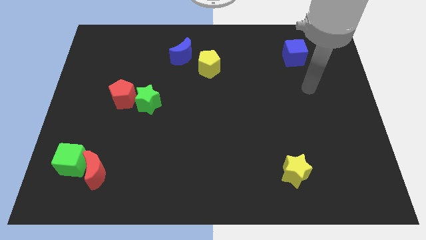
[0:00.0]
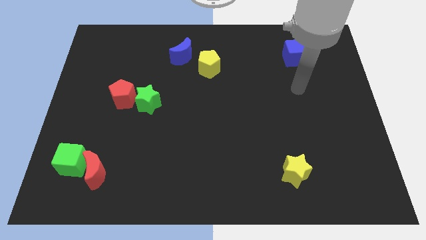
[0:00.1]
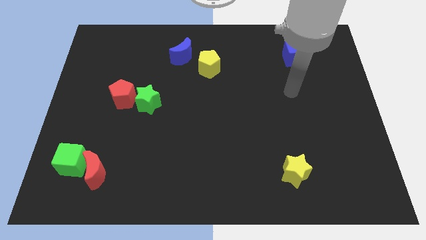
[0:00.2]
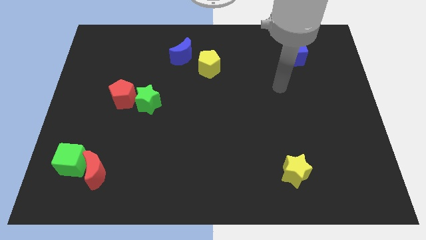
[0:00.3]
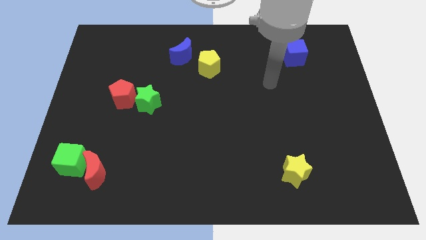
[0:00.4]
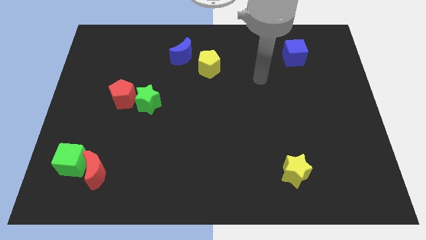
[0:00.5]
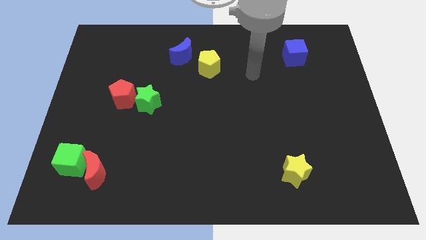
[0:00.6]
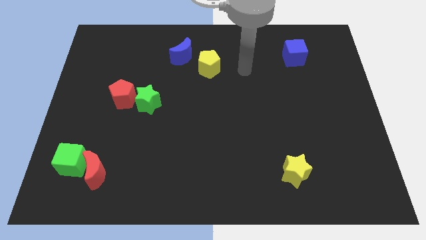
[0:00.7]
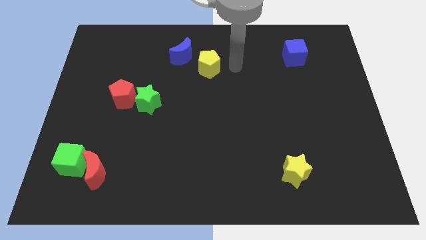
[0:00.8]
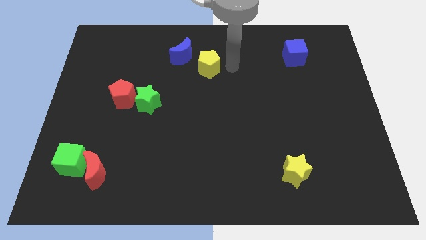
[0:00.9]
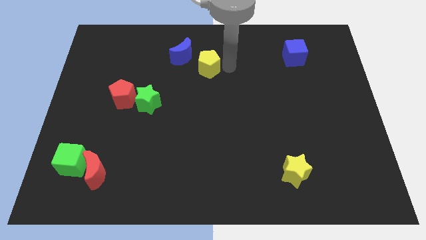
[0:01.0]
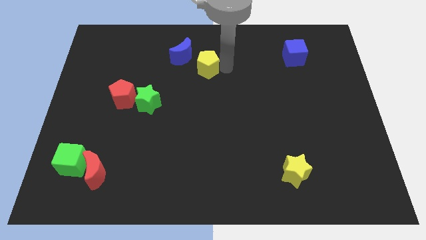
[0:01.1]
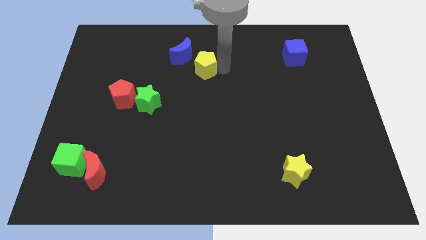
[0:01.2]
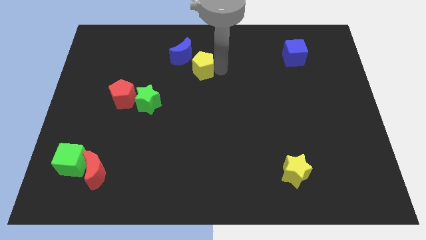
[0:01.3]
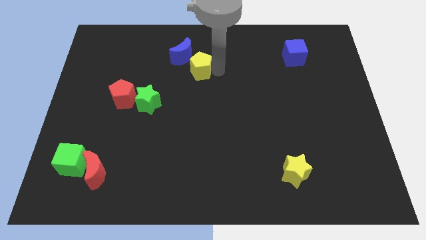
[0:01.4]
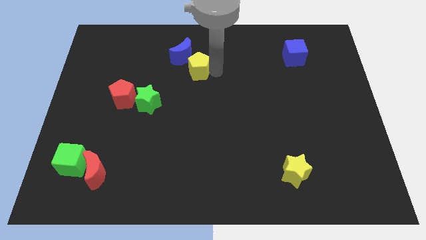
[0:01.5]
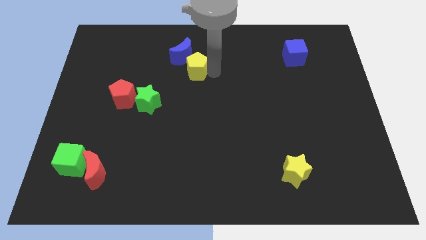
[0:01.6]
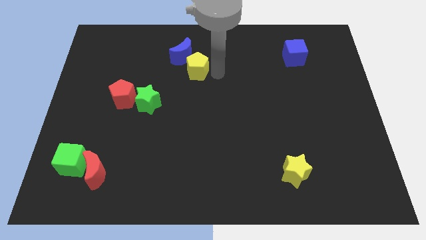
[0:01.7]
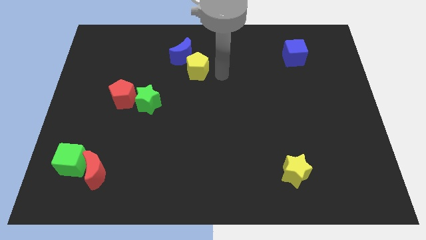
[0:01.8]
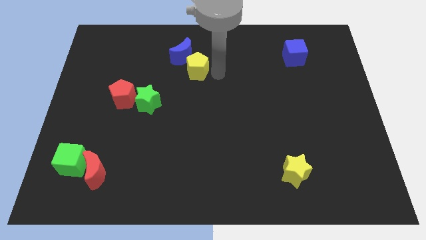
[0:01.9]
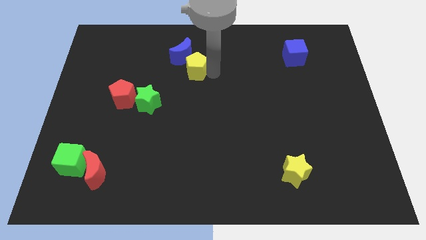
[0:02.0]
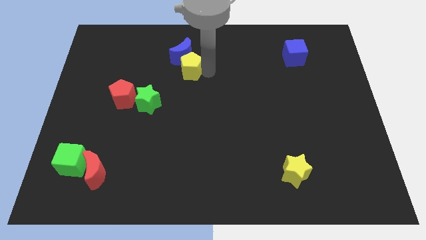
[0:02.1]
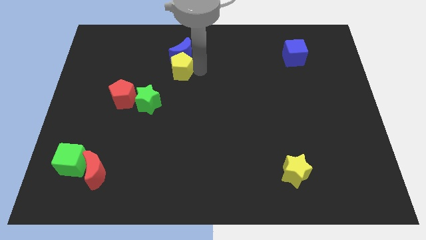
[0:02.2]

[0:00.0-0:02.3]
slightly move the yellow pentagon left

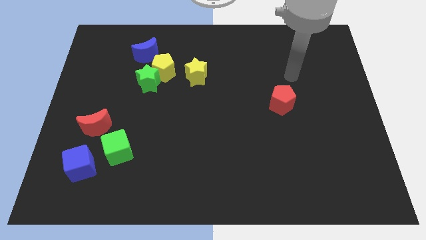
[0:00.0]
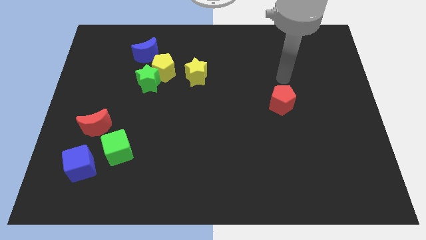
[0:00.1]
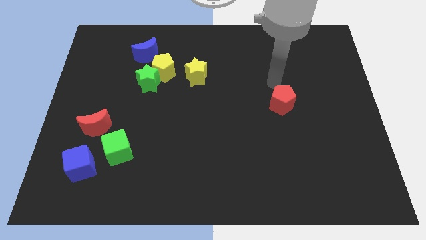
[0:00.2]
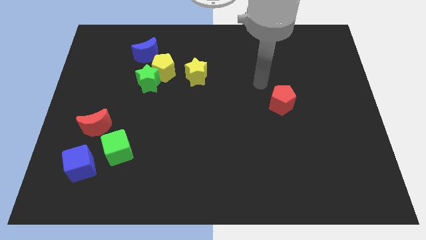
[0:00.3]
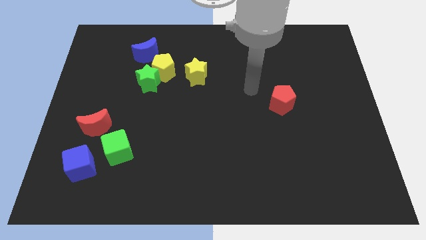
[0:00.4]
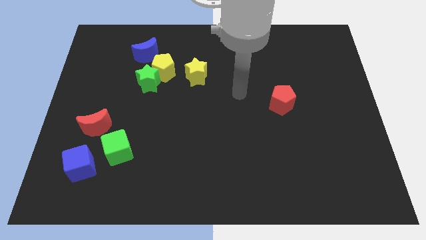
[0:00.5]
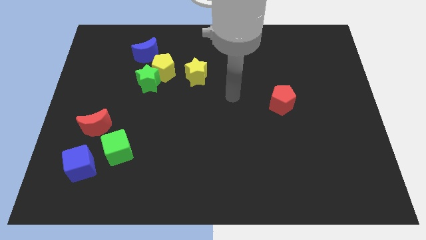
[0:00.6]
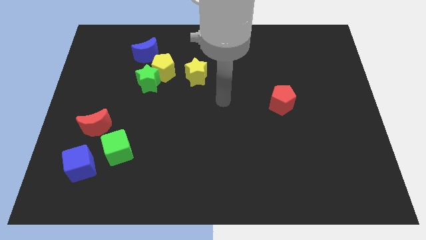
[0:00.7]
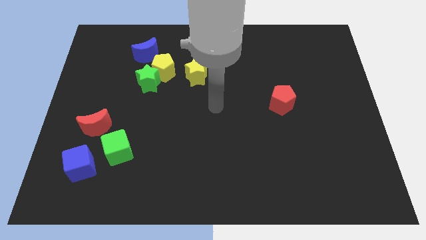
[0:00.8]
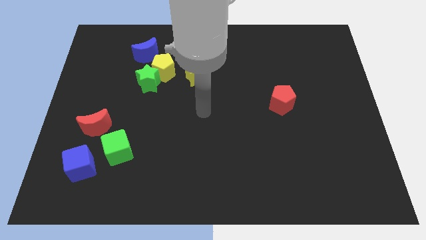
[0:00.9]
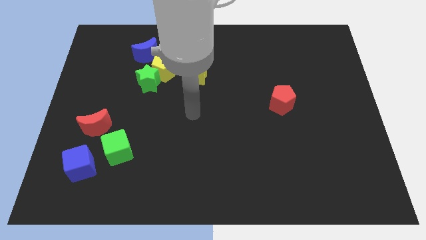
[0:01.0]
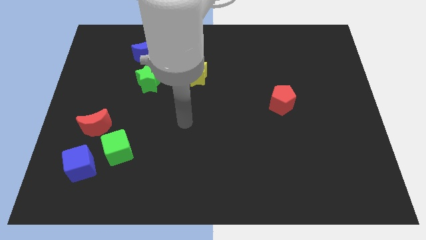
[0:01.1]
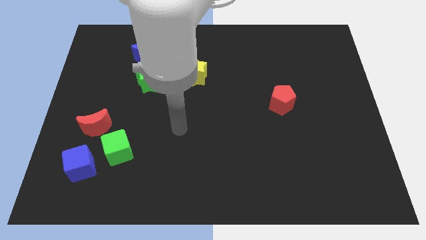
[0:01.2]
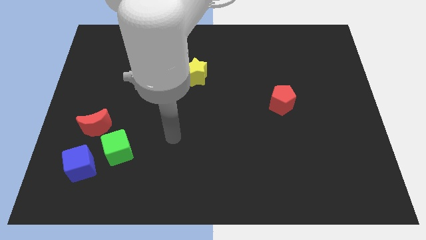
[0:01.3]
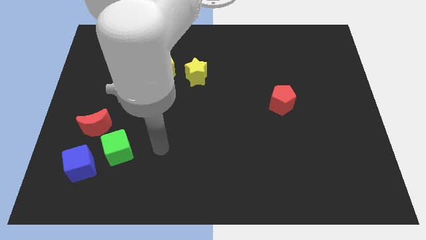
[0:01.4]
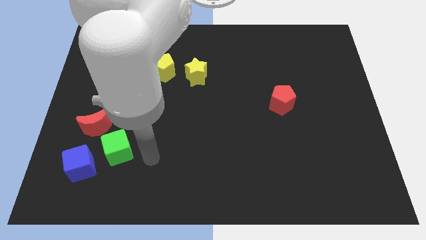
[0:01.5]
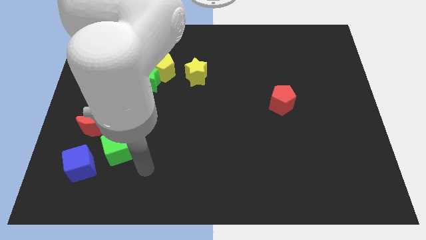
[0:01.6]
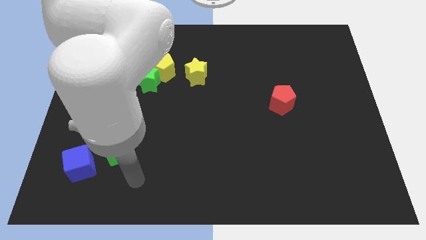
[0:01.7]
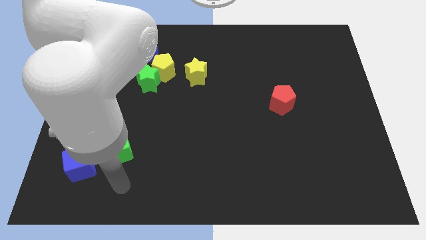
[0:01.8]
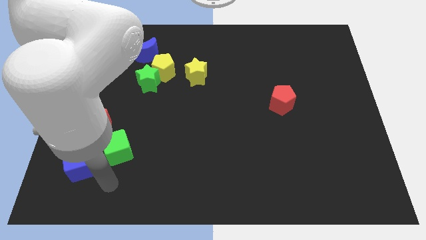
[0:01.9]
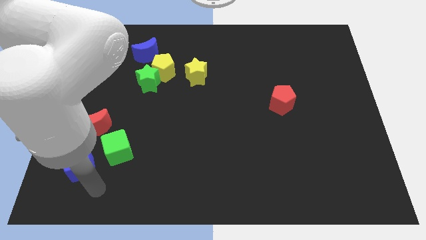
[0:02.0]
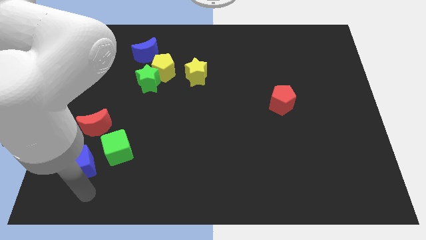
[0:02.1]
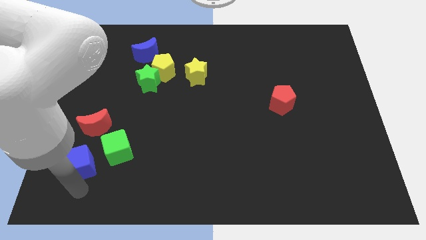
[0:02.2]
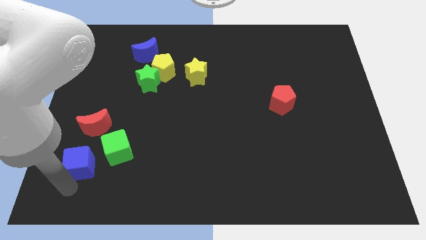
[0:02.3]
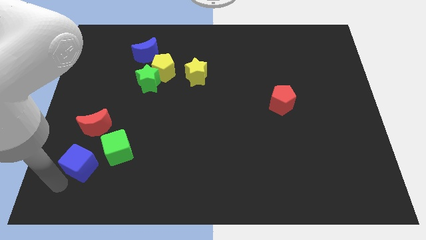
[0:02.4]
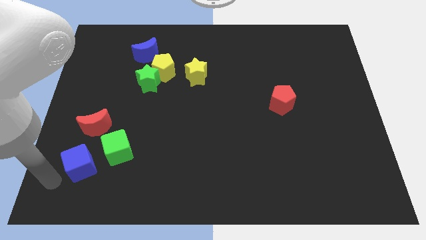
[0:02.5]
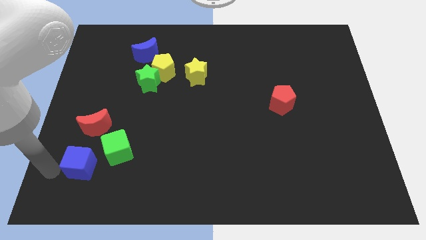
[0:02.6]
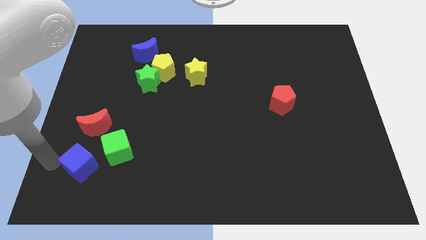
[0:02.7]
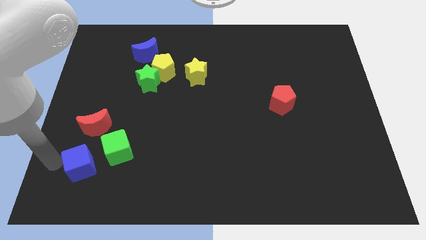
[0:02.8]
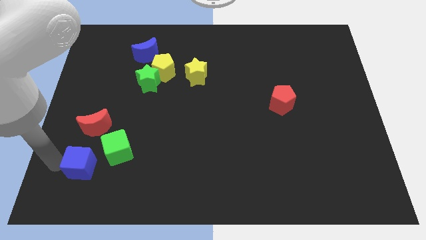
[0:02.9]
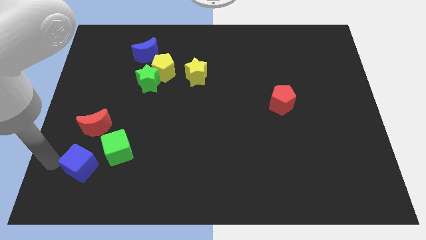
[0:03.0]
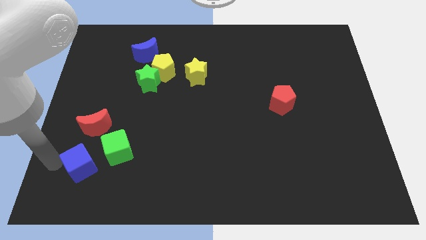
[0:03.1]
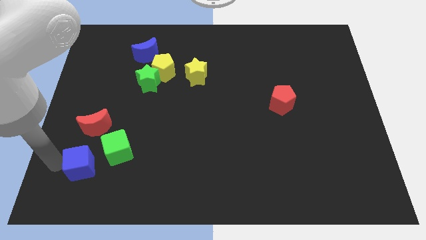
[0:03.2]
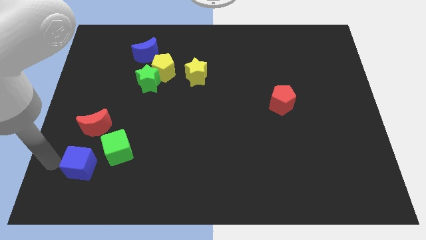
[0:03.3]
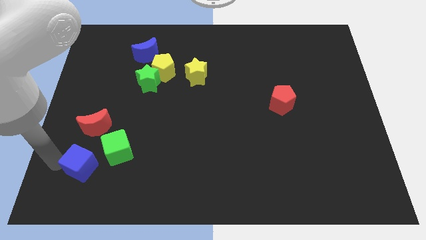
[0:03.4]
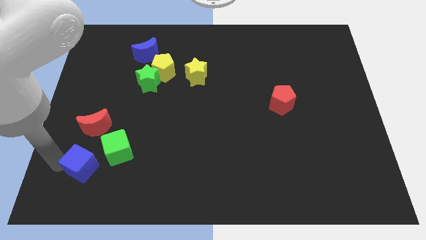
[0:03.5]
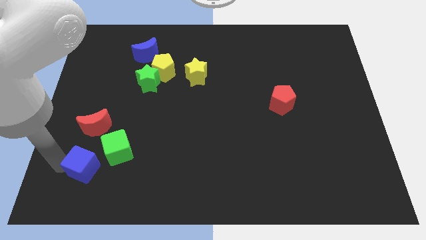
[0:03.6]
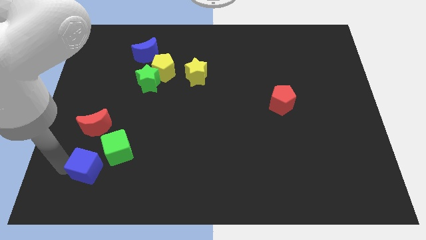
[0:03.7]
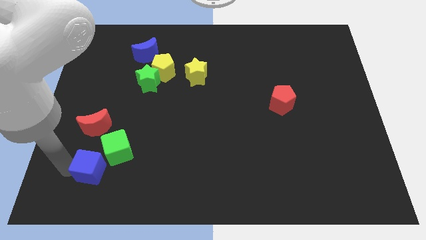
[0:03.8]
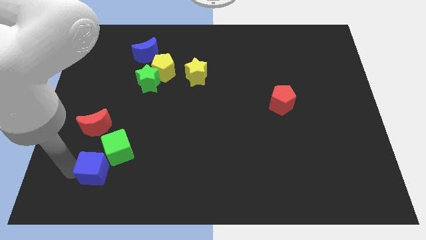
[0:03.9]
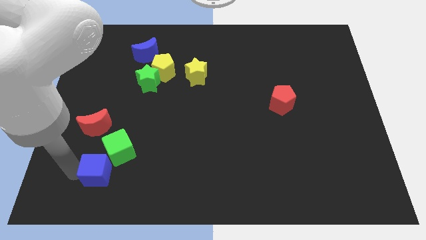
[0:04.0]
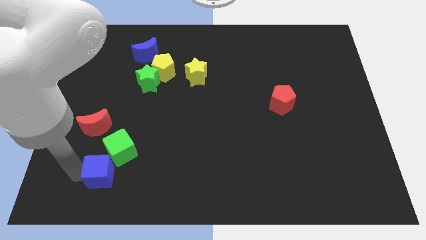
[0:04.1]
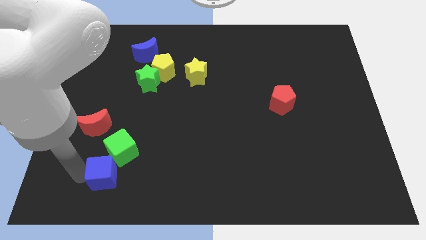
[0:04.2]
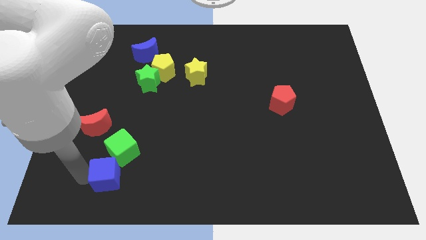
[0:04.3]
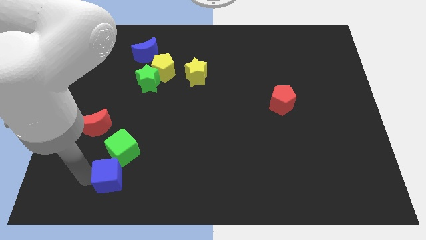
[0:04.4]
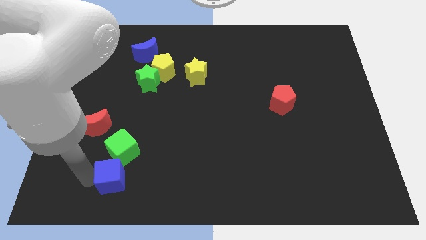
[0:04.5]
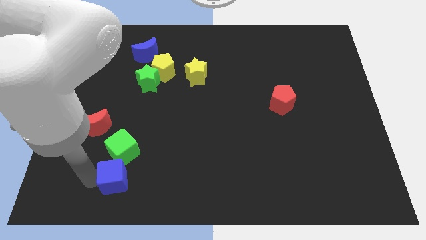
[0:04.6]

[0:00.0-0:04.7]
push the blue cube a bit to the right

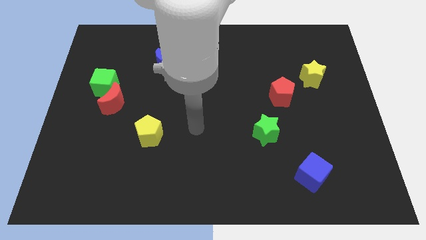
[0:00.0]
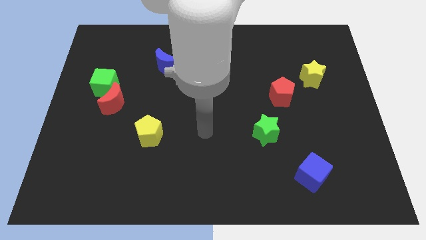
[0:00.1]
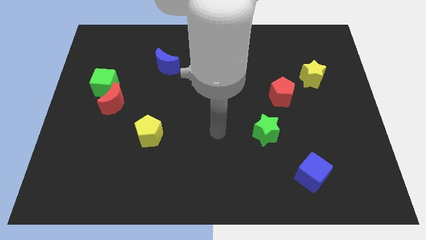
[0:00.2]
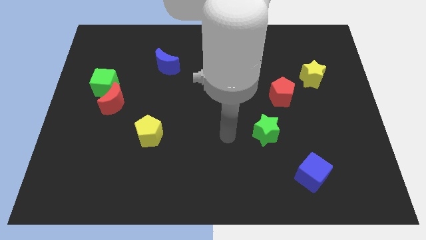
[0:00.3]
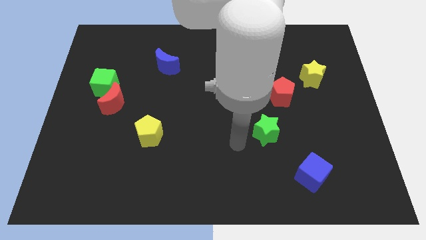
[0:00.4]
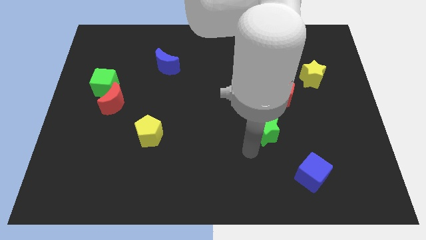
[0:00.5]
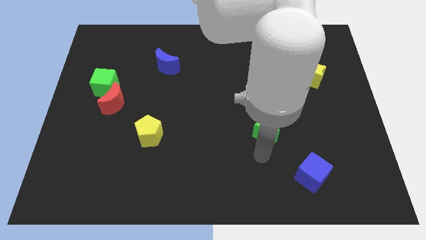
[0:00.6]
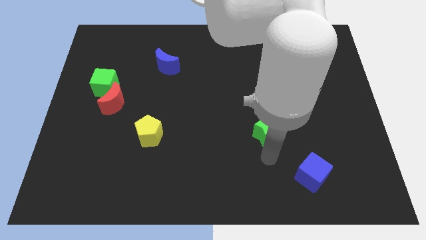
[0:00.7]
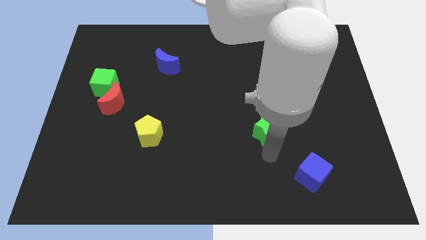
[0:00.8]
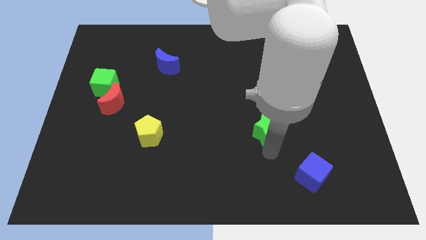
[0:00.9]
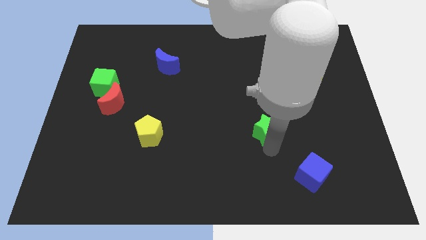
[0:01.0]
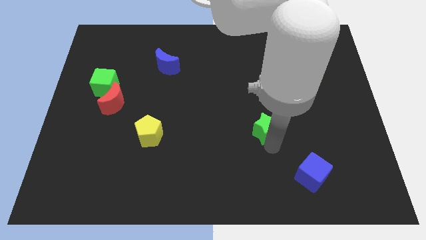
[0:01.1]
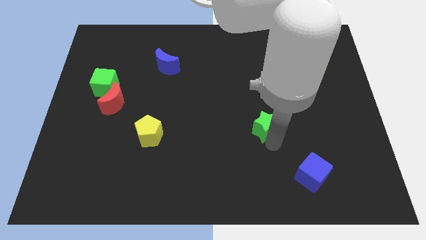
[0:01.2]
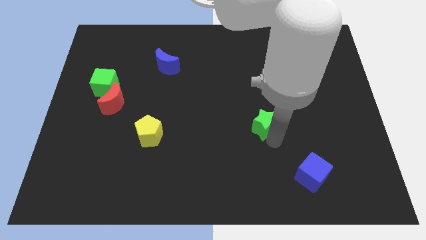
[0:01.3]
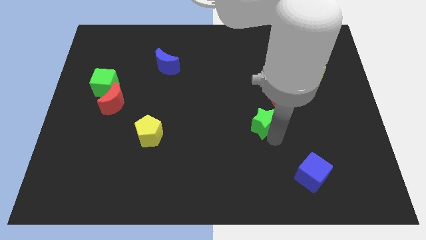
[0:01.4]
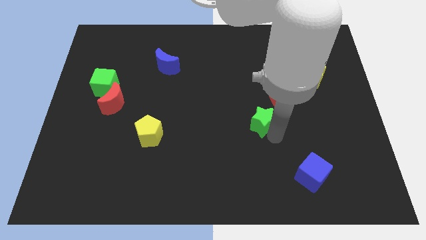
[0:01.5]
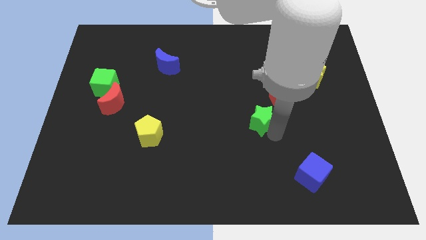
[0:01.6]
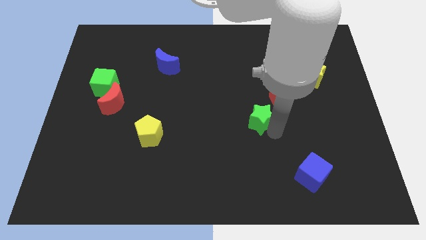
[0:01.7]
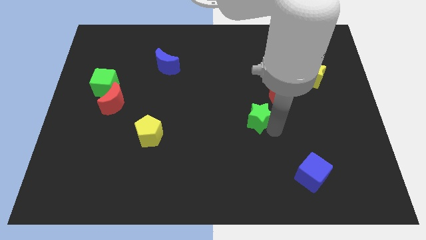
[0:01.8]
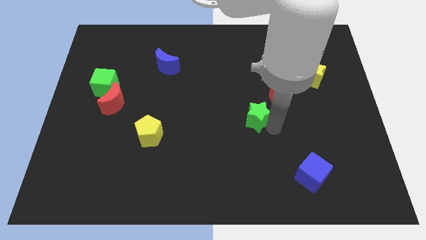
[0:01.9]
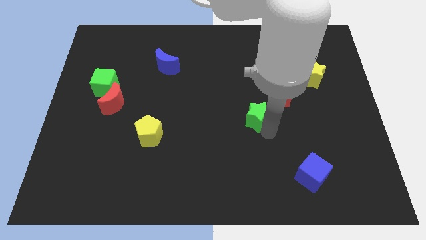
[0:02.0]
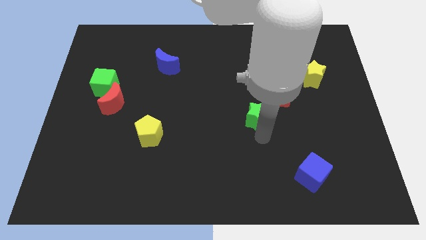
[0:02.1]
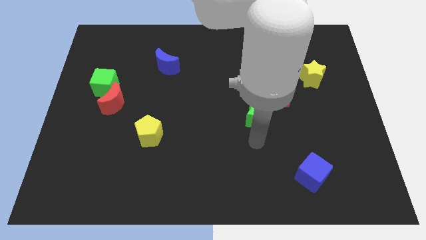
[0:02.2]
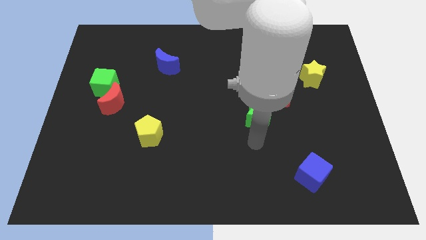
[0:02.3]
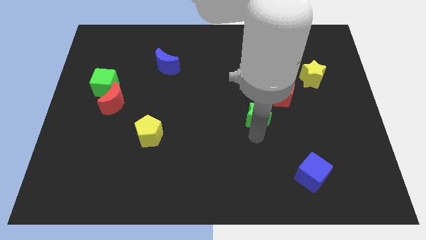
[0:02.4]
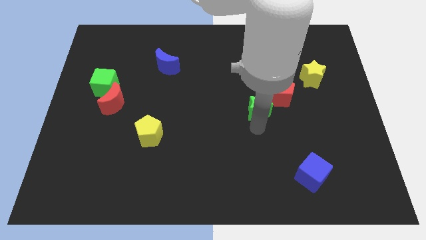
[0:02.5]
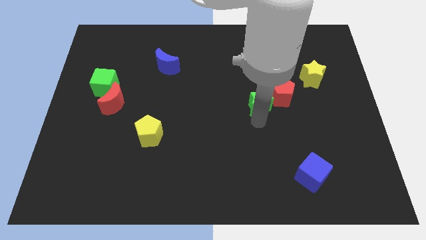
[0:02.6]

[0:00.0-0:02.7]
push the green star a bit up
